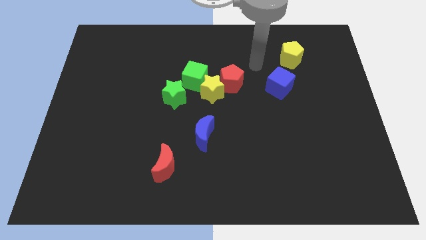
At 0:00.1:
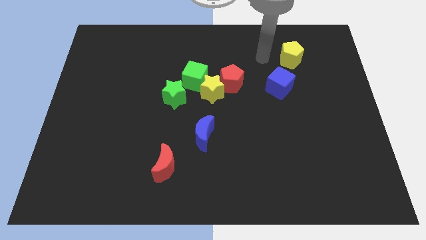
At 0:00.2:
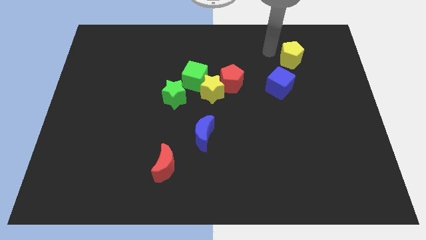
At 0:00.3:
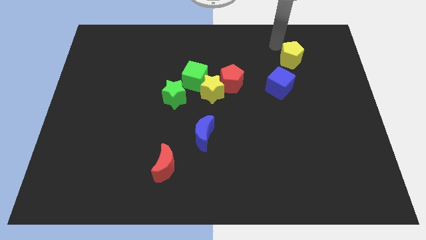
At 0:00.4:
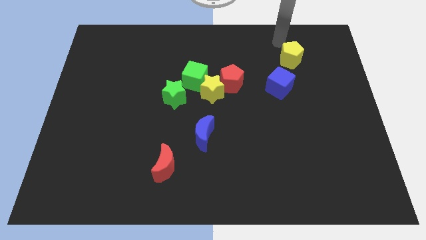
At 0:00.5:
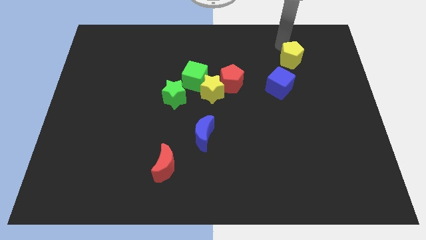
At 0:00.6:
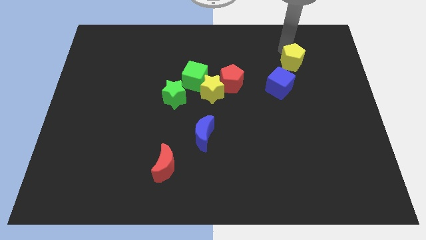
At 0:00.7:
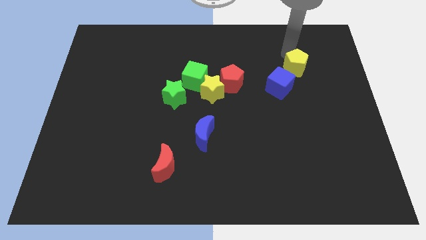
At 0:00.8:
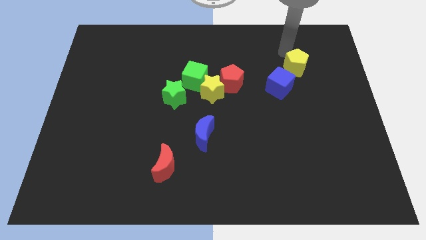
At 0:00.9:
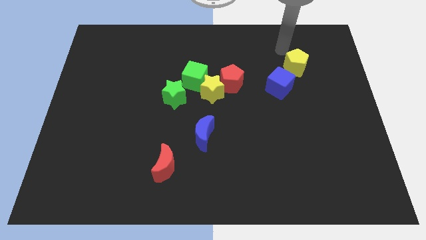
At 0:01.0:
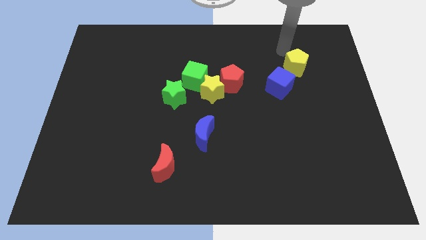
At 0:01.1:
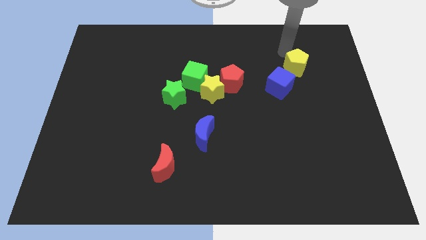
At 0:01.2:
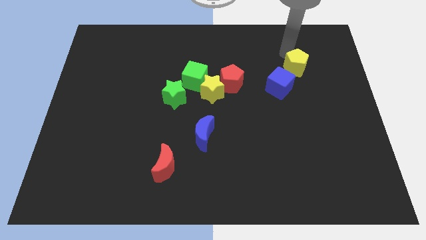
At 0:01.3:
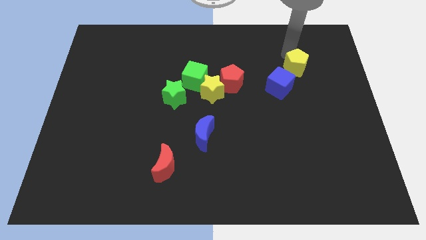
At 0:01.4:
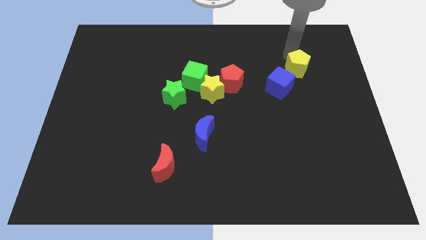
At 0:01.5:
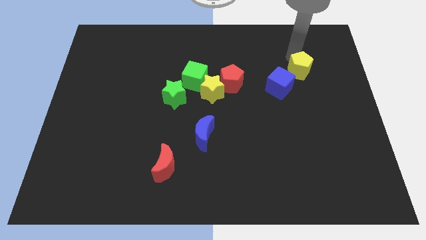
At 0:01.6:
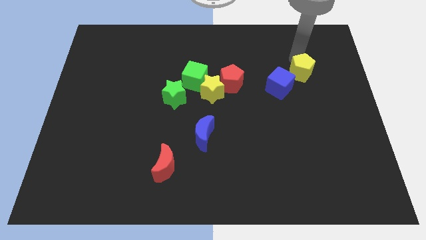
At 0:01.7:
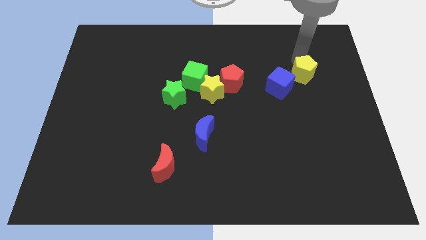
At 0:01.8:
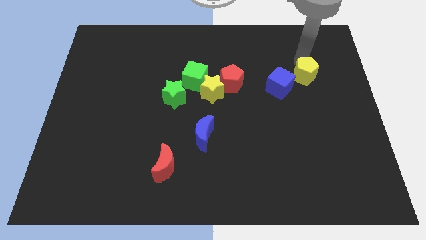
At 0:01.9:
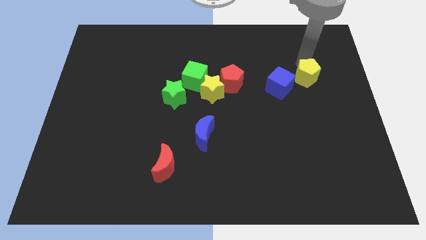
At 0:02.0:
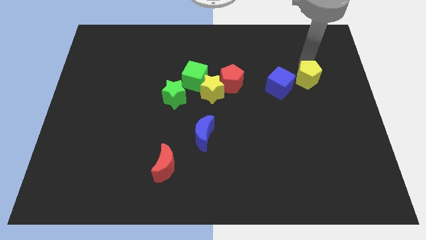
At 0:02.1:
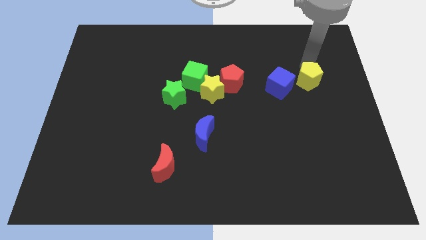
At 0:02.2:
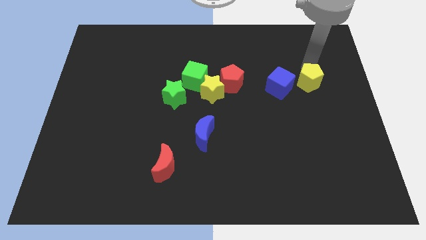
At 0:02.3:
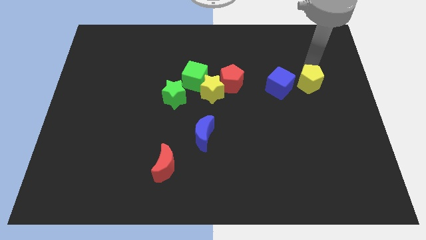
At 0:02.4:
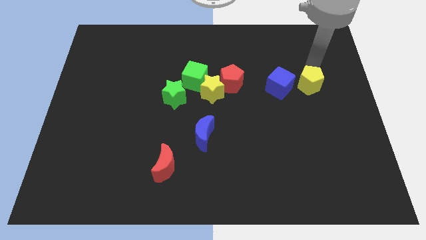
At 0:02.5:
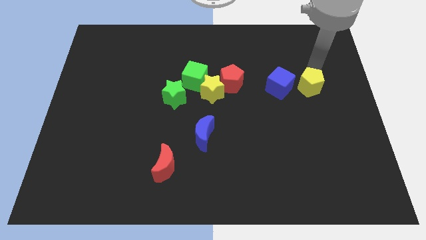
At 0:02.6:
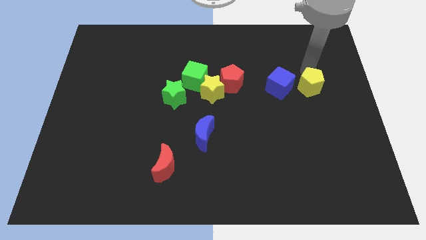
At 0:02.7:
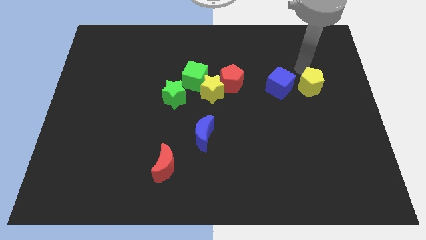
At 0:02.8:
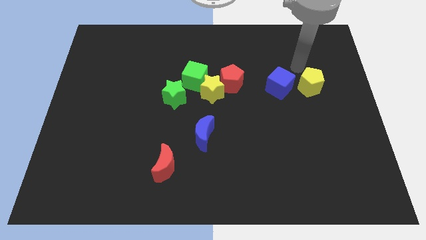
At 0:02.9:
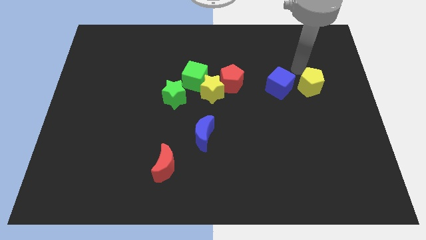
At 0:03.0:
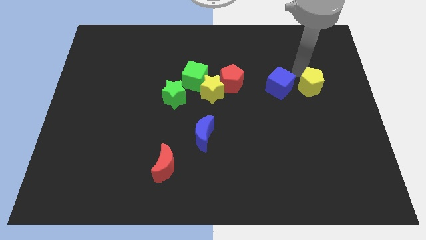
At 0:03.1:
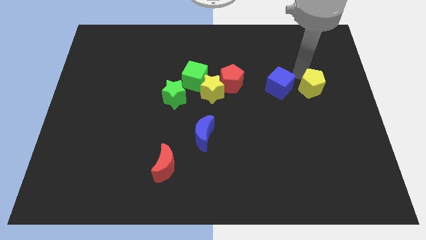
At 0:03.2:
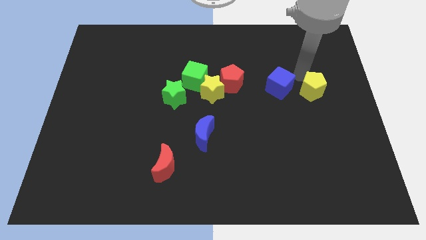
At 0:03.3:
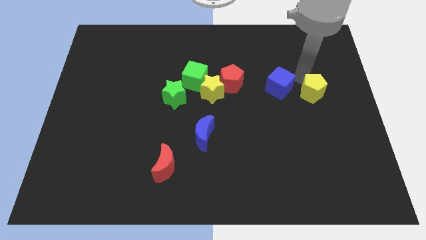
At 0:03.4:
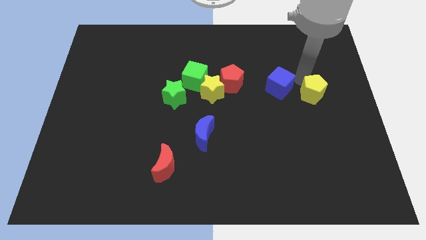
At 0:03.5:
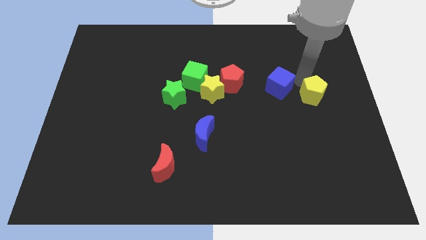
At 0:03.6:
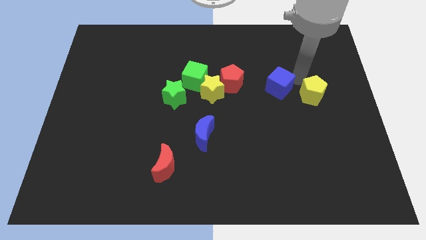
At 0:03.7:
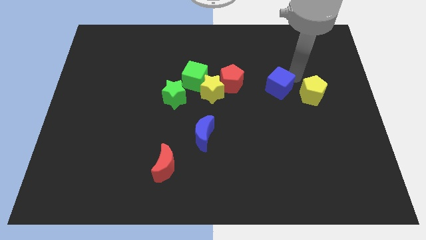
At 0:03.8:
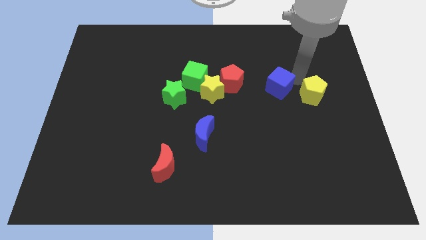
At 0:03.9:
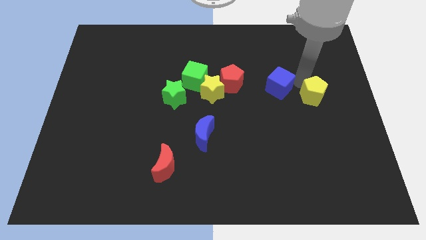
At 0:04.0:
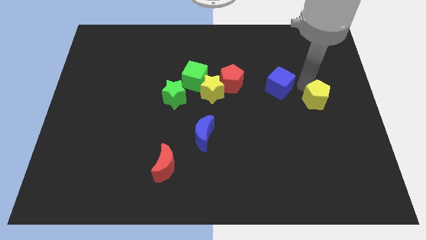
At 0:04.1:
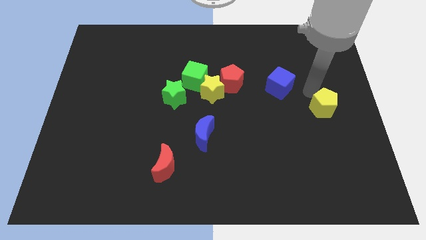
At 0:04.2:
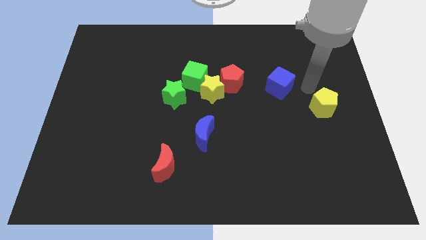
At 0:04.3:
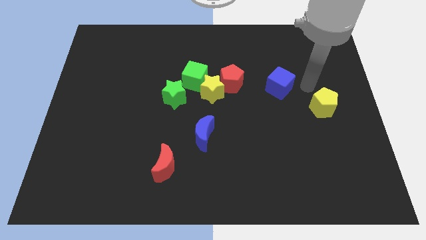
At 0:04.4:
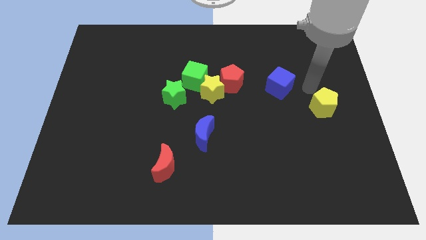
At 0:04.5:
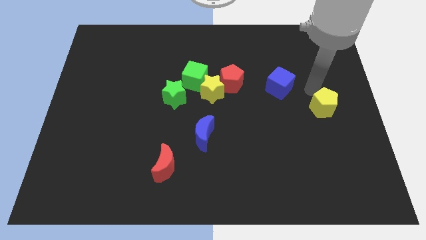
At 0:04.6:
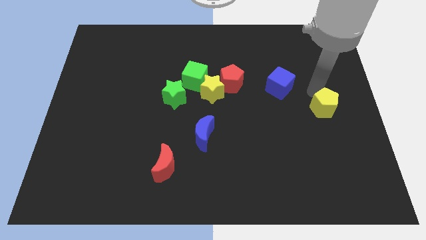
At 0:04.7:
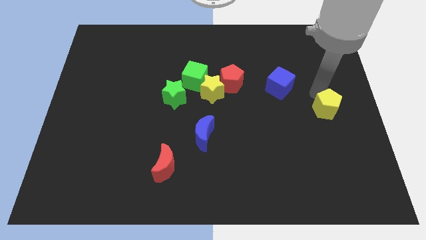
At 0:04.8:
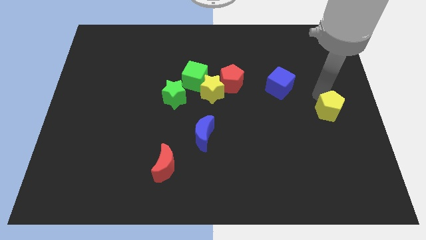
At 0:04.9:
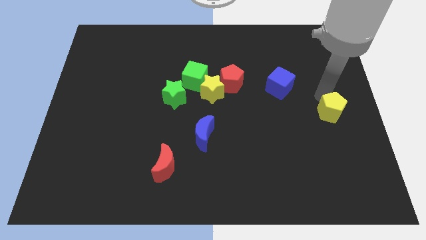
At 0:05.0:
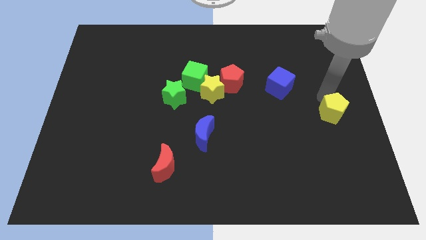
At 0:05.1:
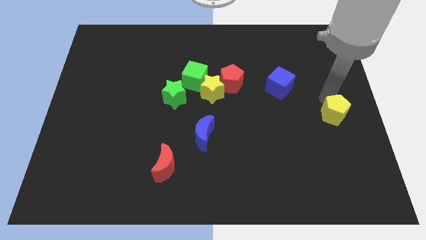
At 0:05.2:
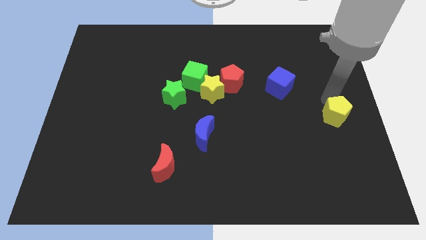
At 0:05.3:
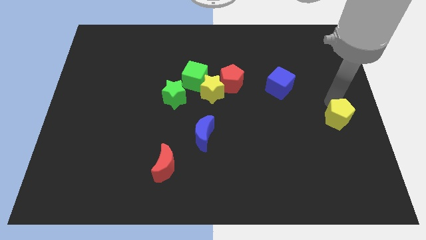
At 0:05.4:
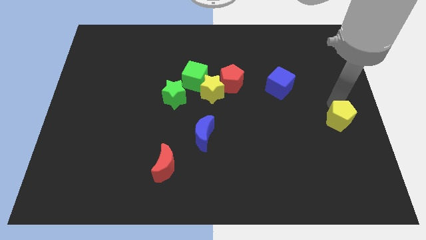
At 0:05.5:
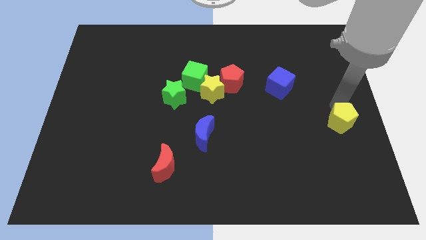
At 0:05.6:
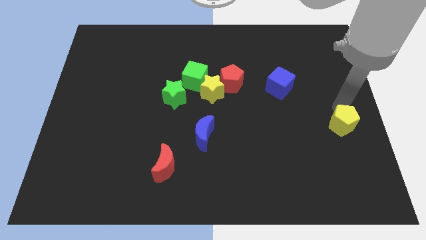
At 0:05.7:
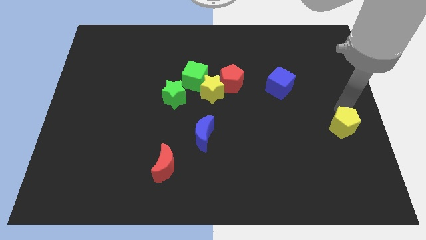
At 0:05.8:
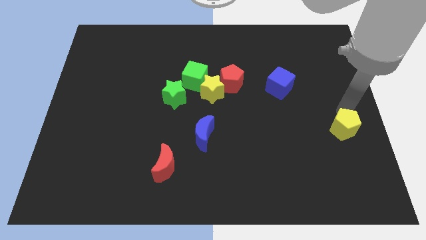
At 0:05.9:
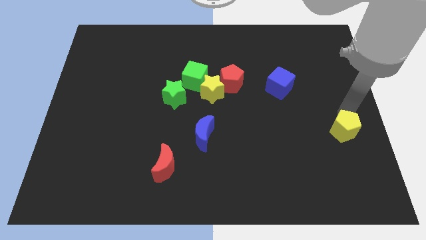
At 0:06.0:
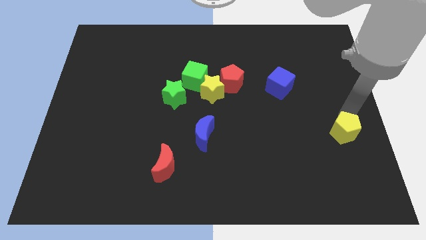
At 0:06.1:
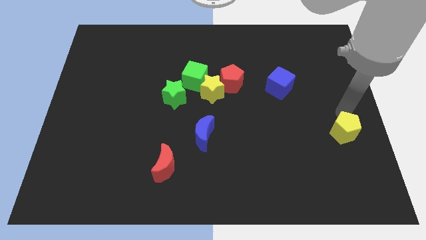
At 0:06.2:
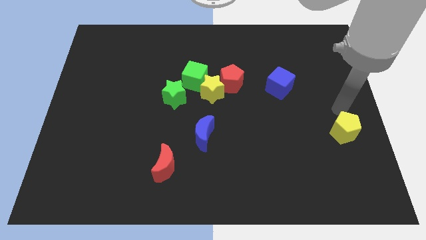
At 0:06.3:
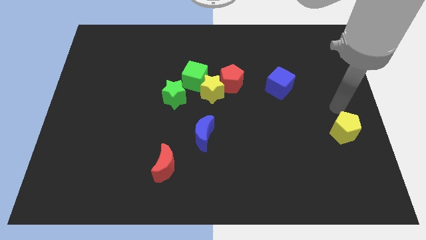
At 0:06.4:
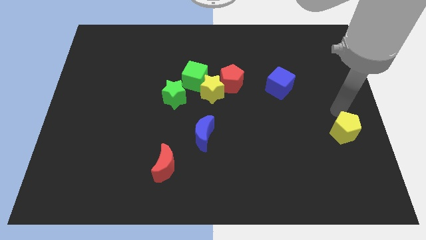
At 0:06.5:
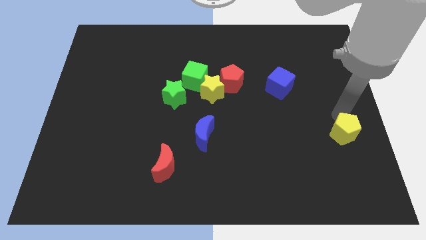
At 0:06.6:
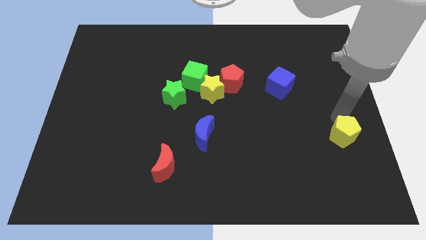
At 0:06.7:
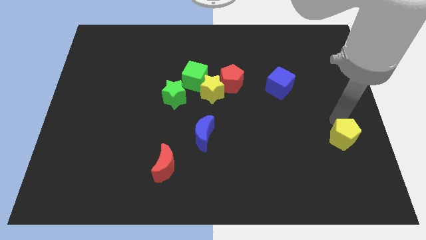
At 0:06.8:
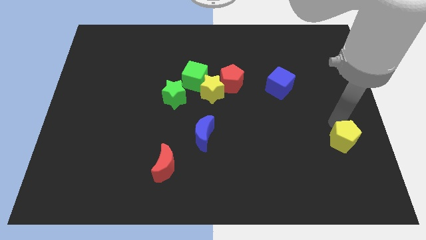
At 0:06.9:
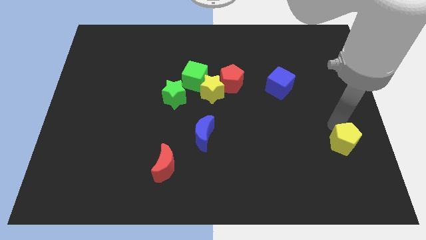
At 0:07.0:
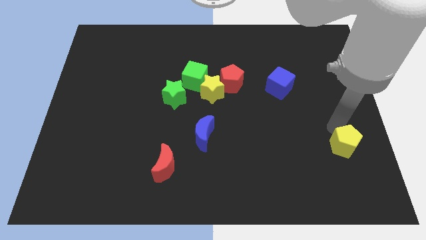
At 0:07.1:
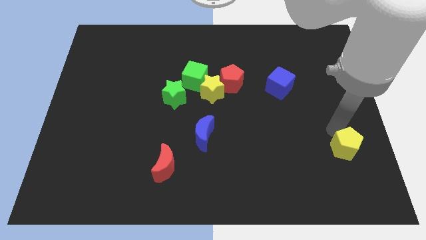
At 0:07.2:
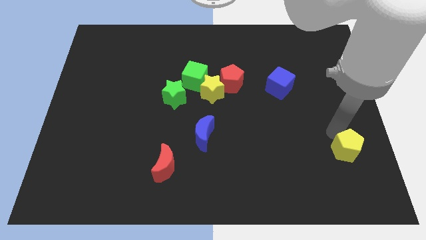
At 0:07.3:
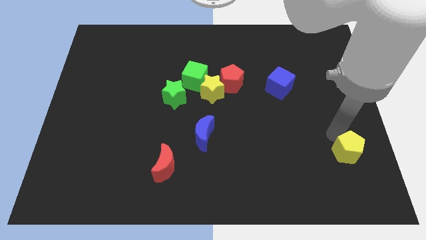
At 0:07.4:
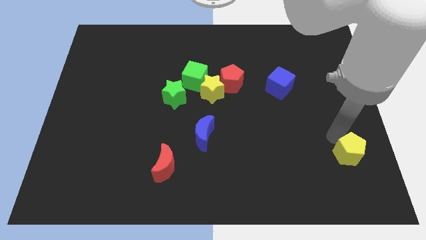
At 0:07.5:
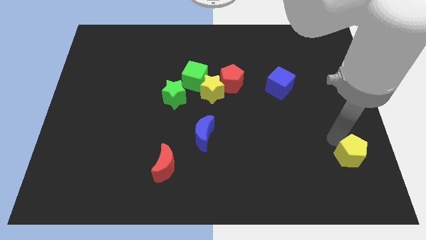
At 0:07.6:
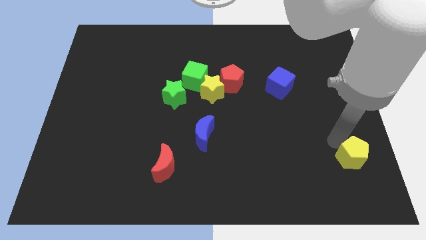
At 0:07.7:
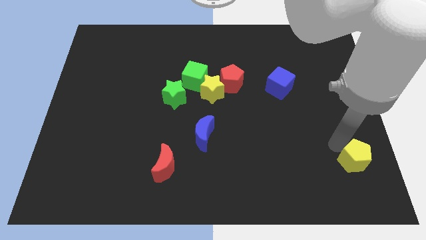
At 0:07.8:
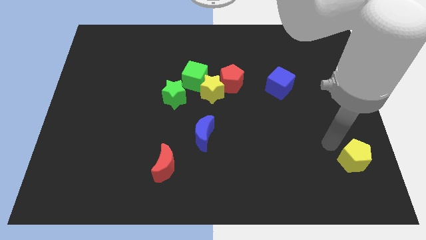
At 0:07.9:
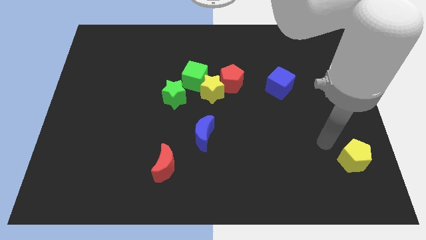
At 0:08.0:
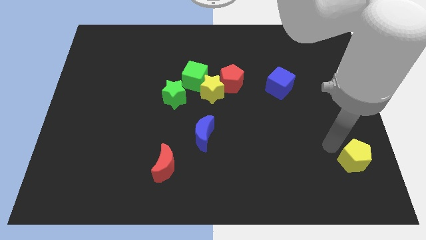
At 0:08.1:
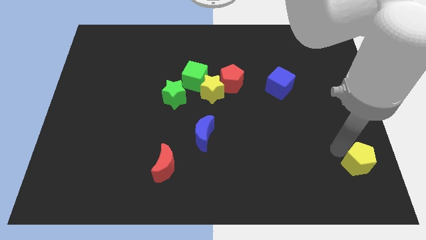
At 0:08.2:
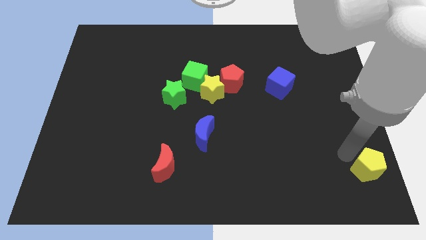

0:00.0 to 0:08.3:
put the yellow pentagon to the lower right corner
